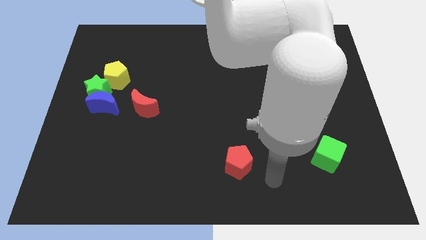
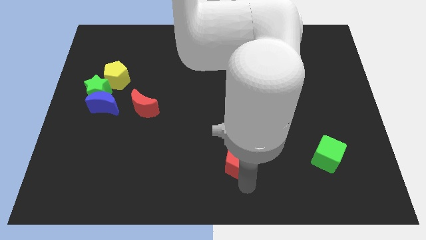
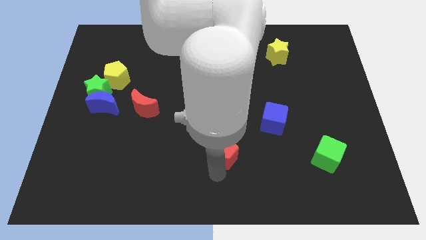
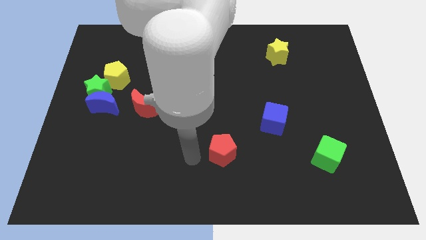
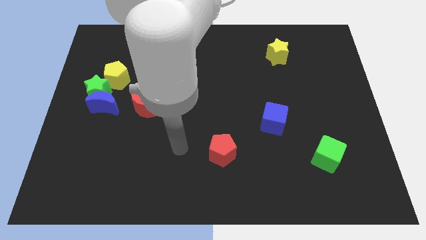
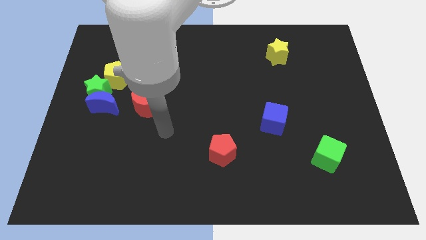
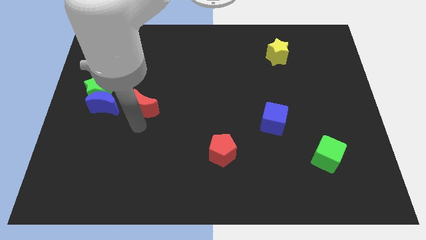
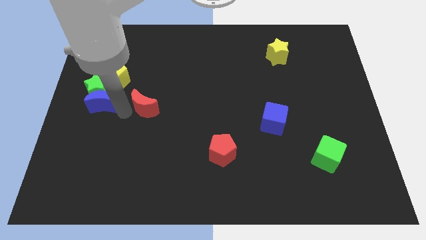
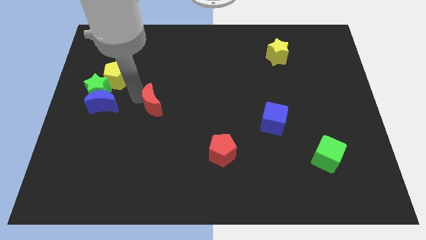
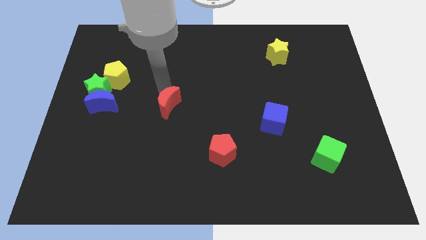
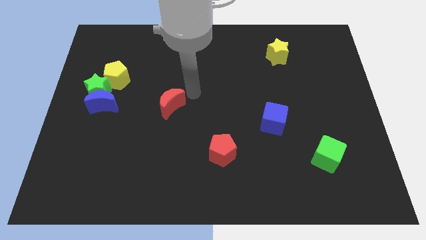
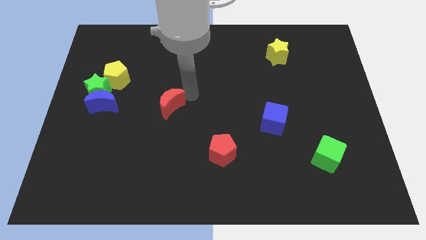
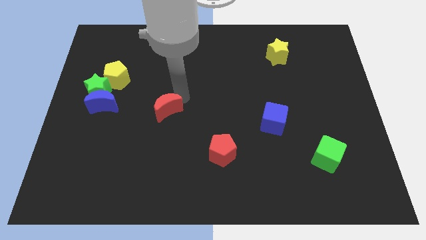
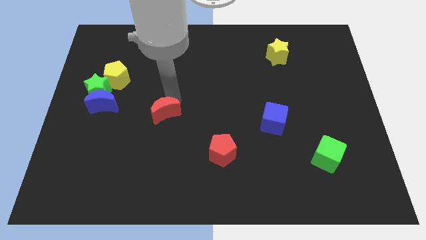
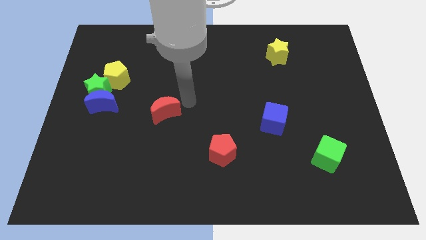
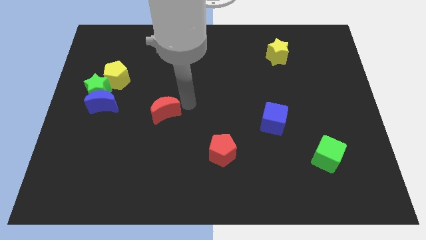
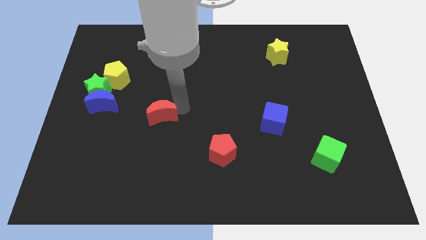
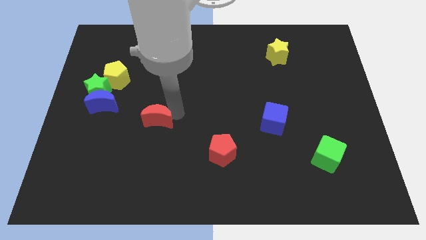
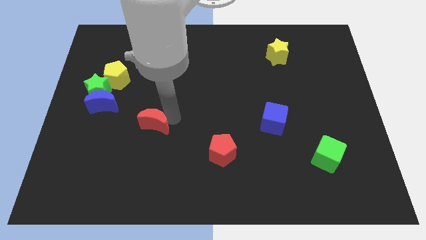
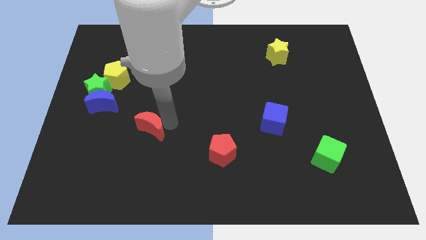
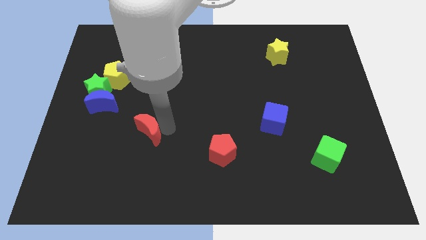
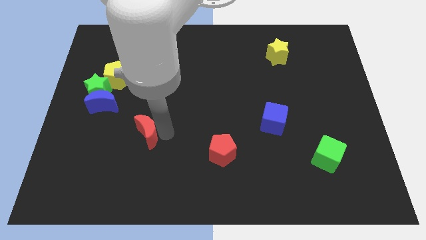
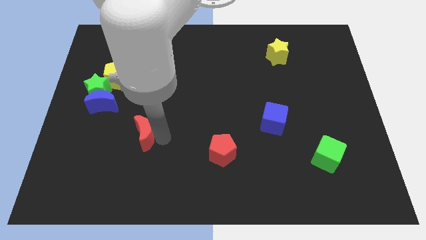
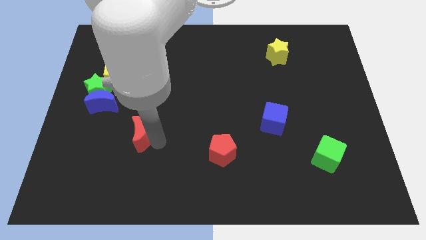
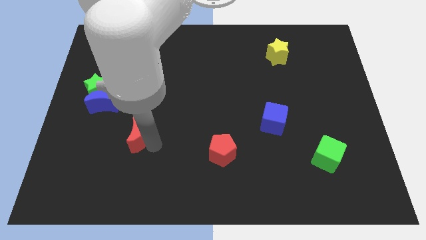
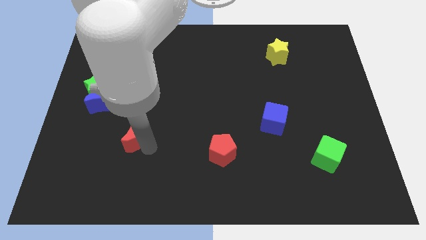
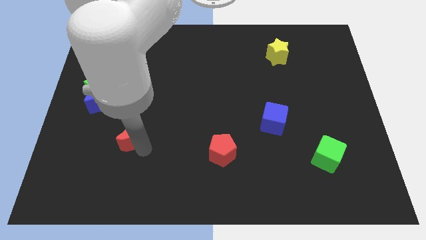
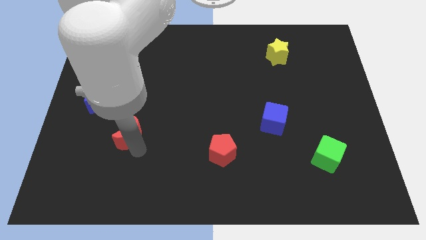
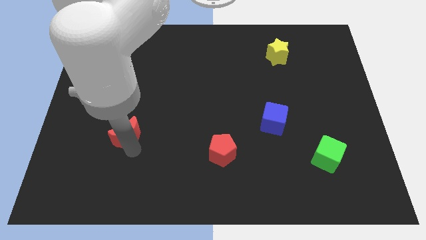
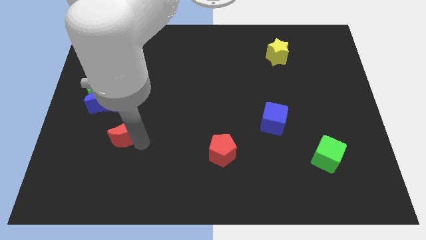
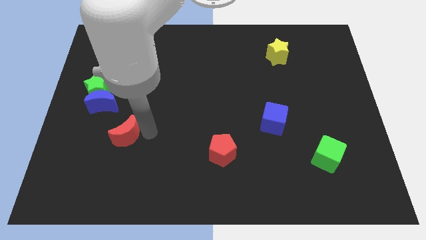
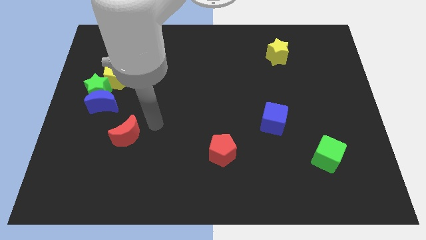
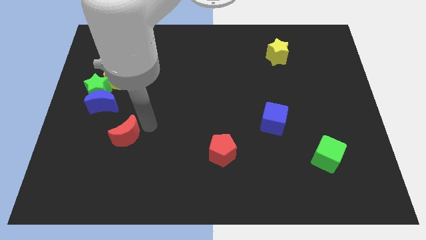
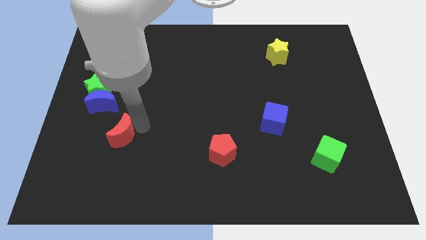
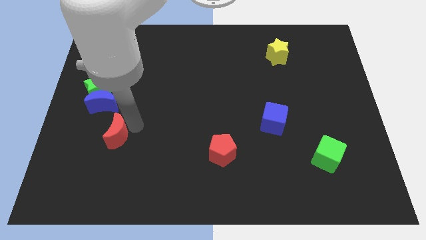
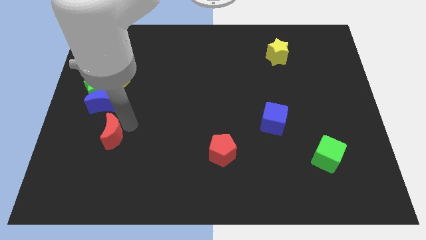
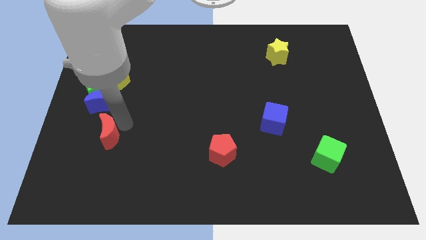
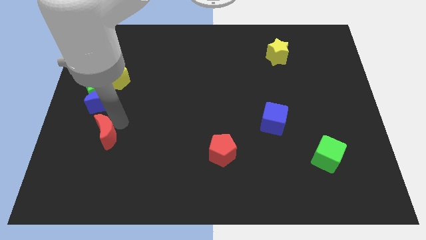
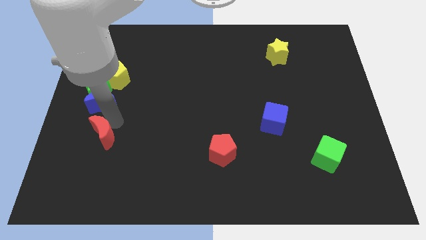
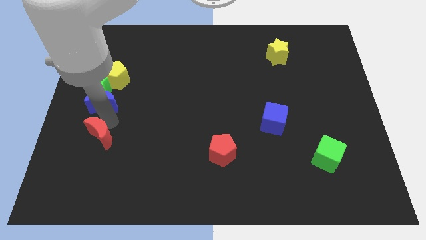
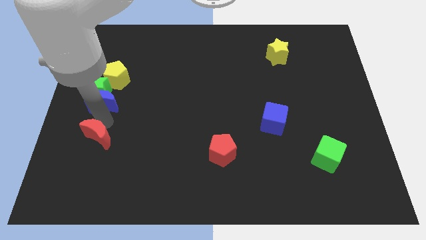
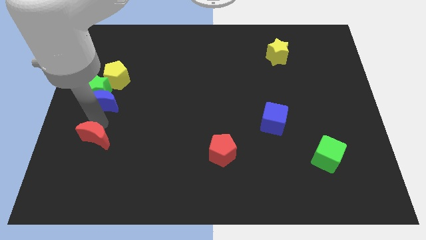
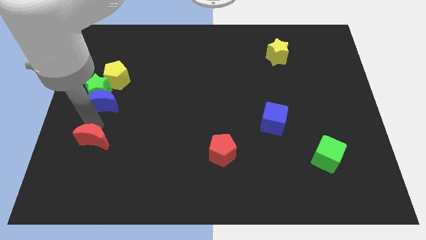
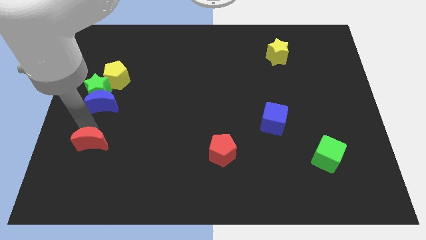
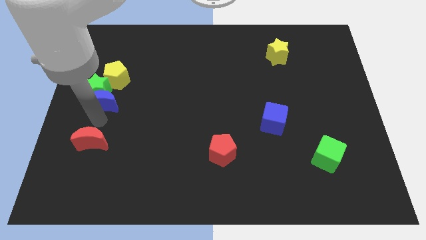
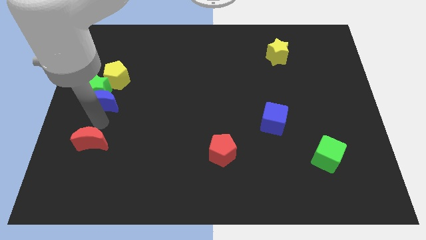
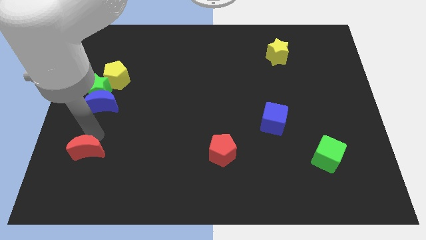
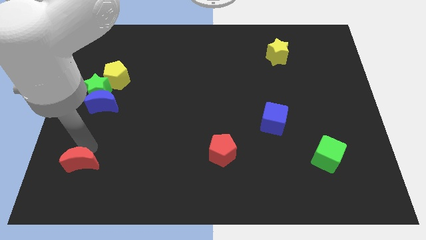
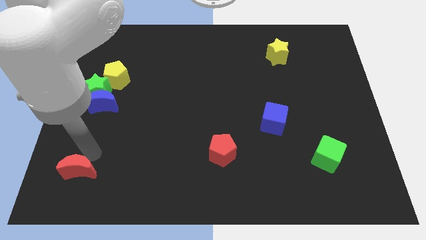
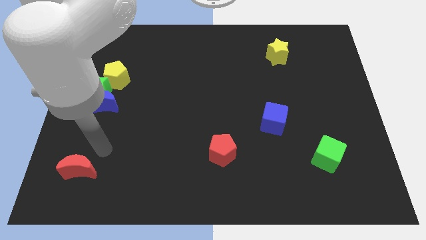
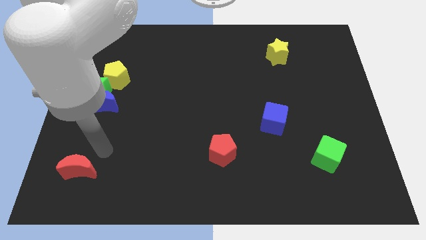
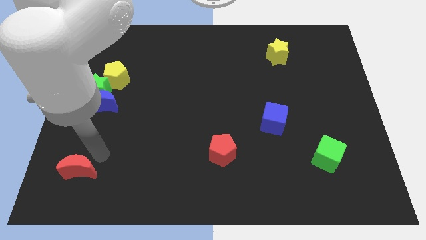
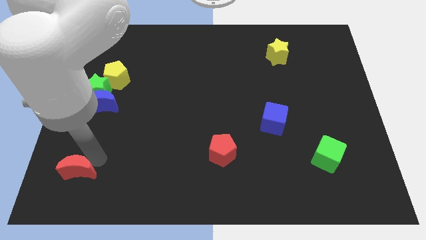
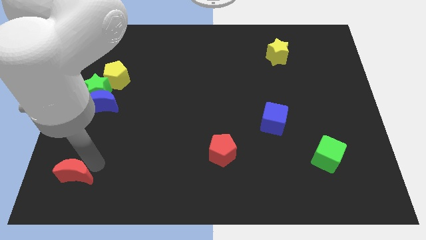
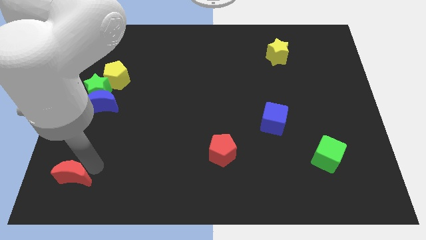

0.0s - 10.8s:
move the red moon to the bottom left

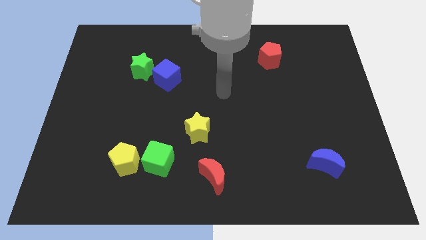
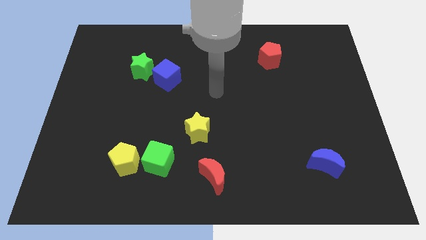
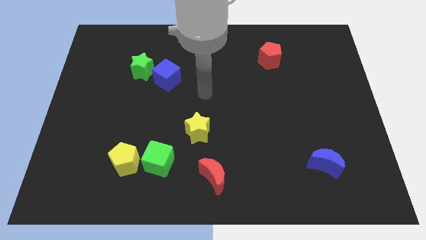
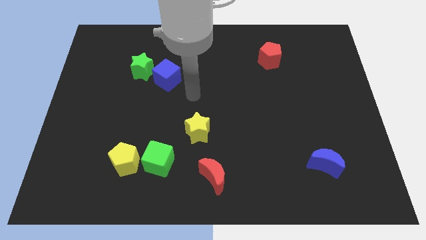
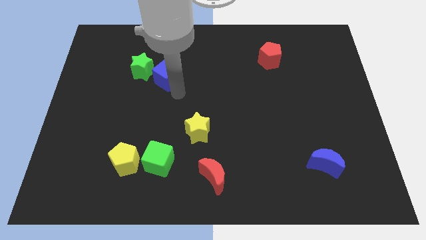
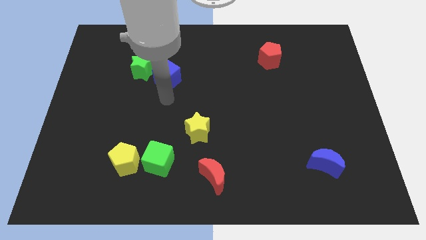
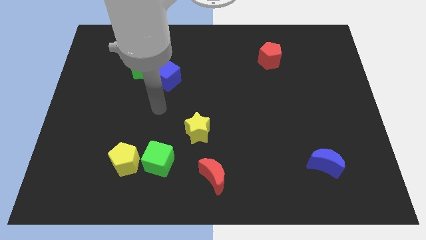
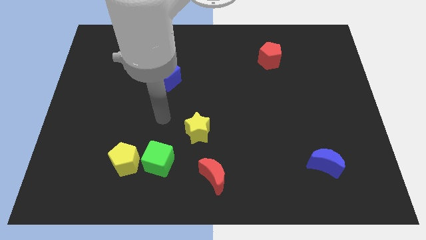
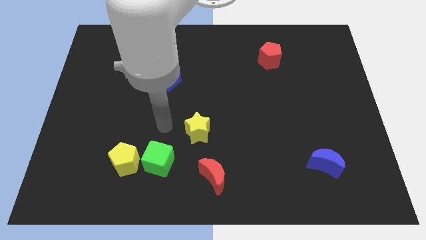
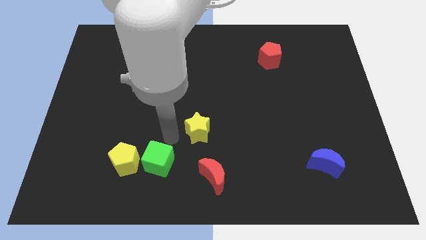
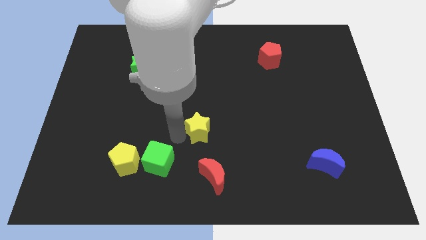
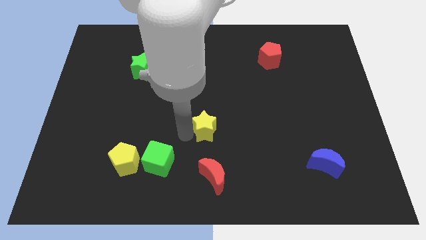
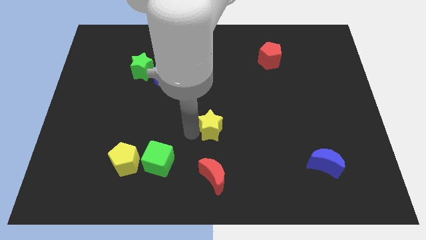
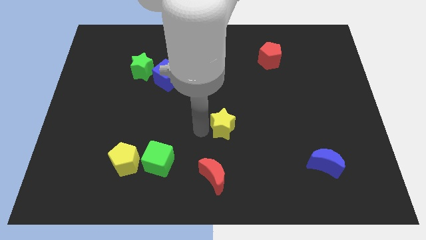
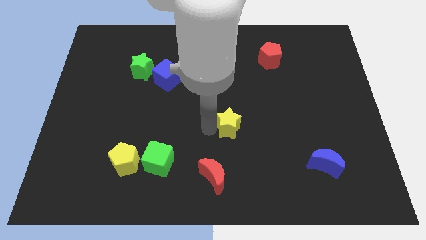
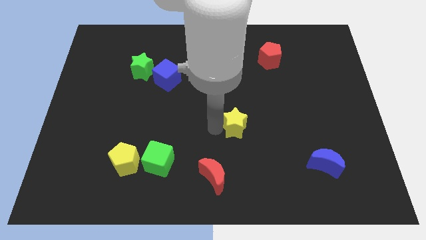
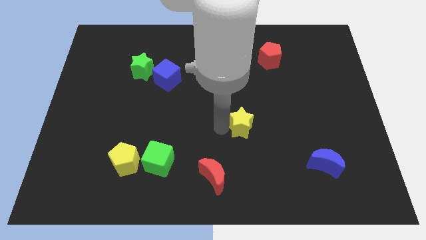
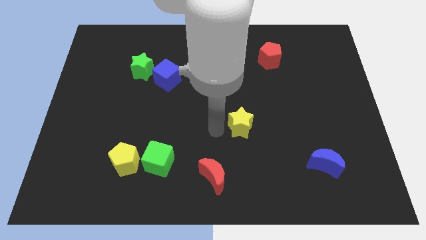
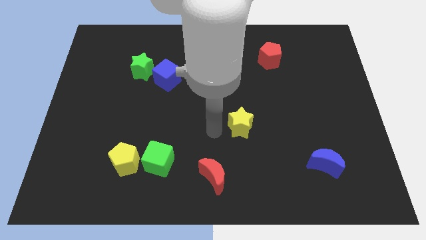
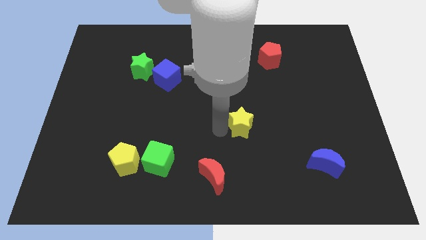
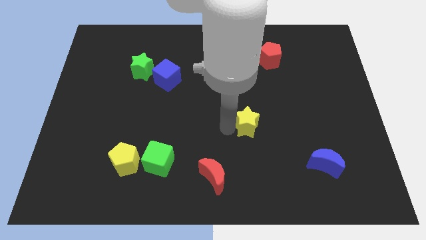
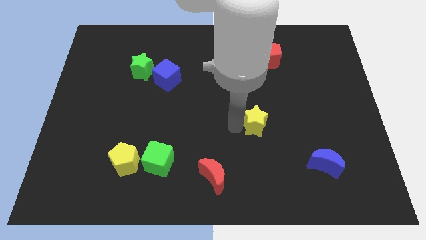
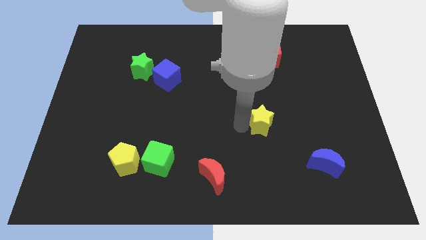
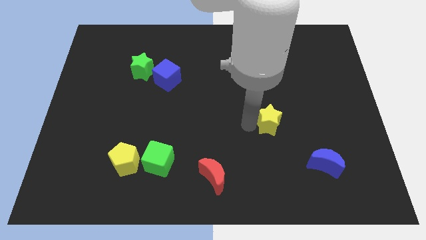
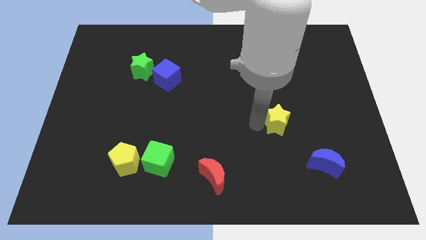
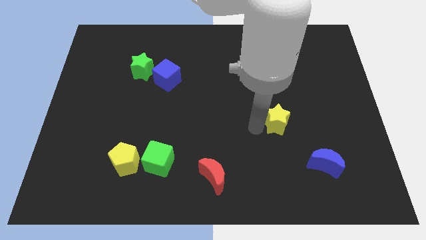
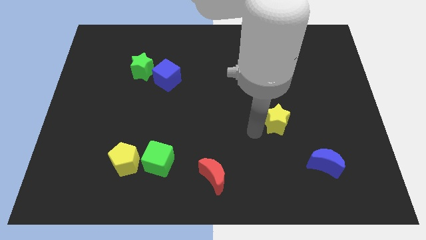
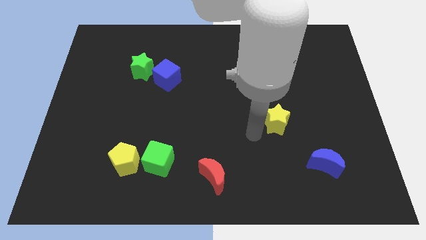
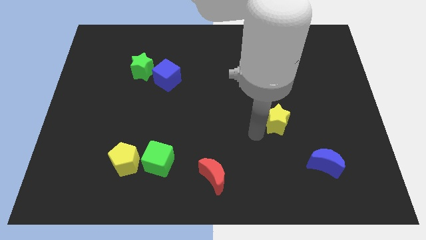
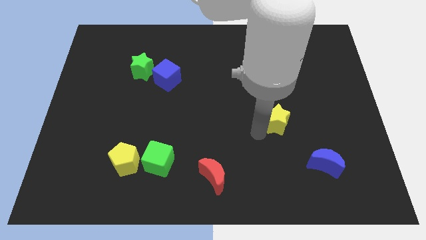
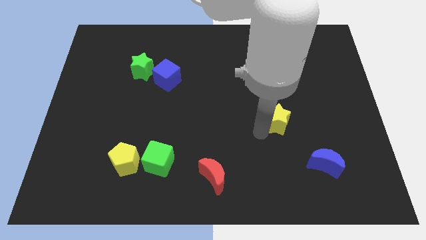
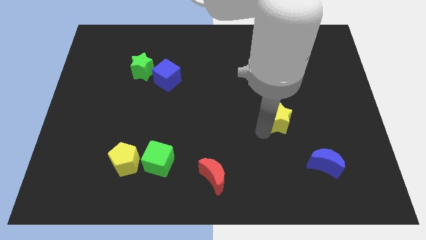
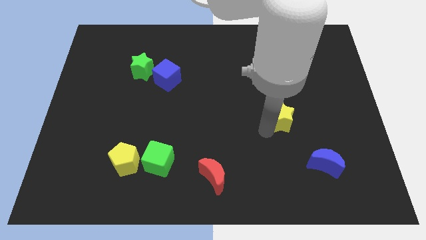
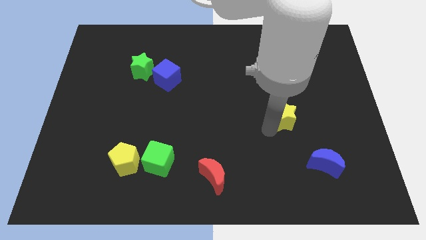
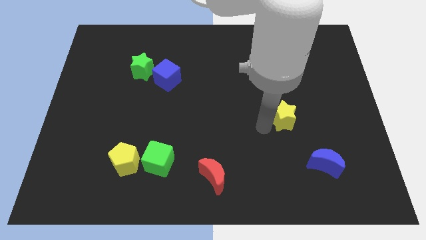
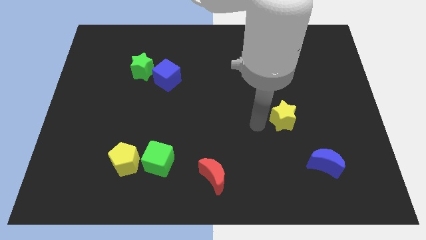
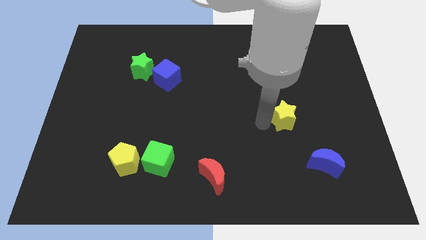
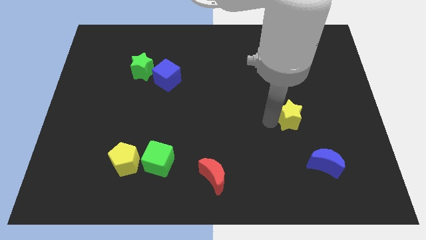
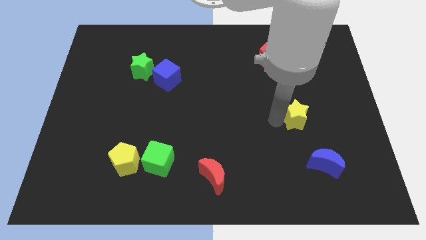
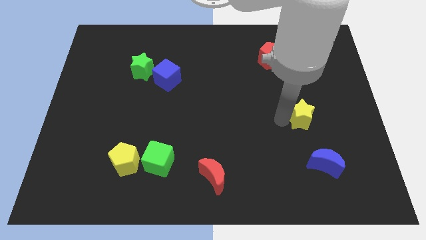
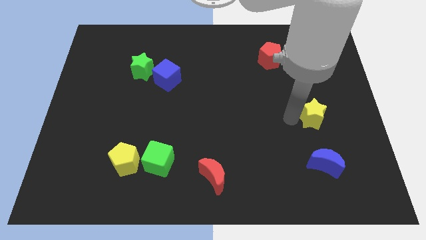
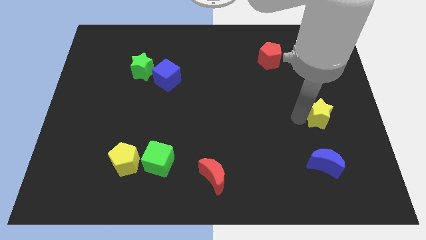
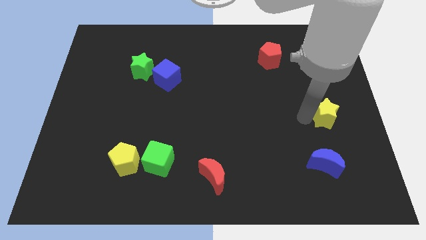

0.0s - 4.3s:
slide the yellow star to the right side
